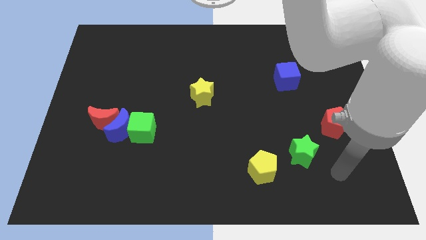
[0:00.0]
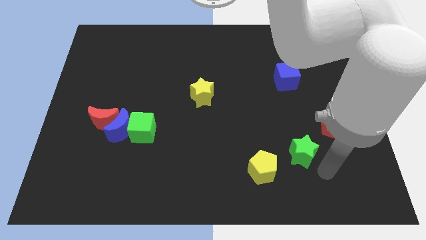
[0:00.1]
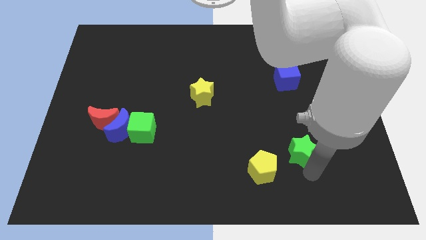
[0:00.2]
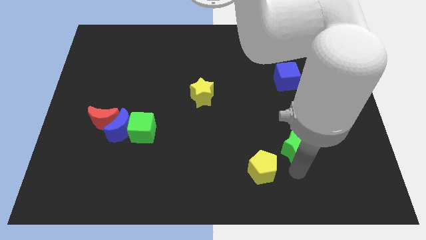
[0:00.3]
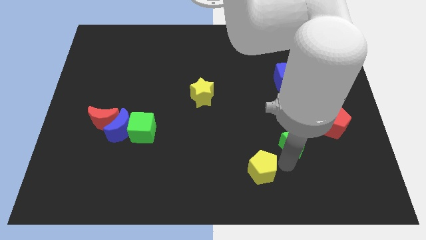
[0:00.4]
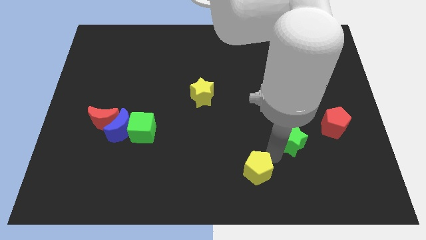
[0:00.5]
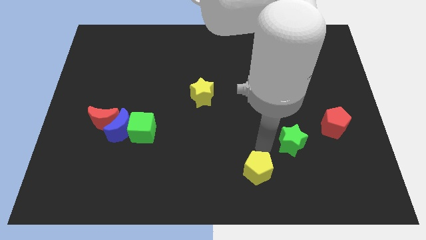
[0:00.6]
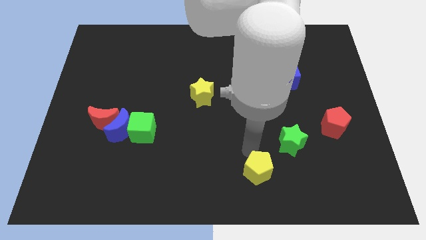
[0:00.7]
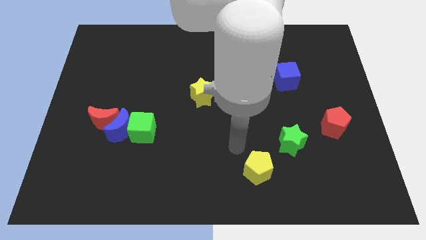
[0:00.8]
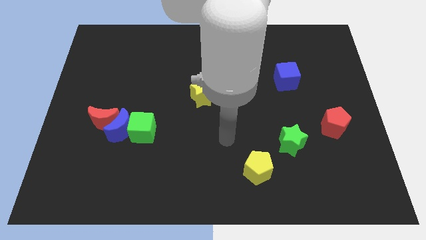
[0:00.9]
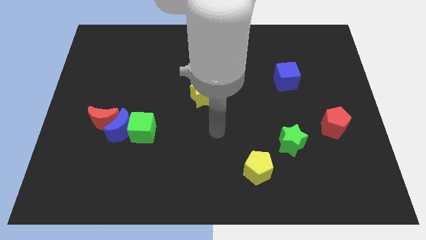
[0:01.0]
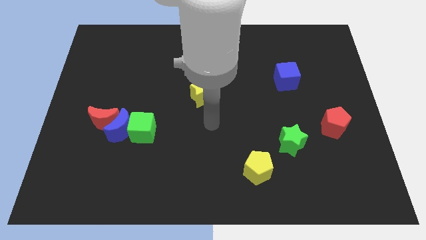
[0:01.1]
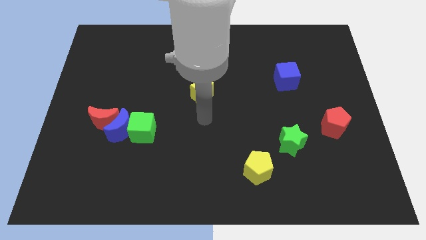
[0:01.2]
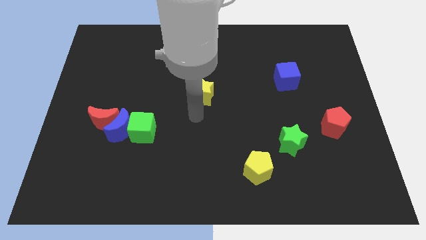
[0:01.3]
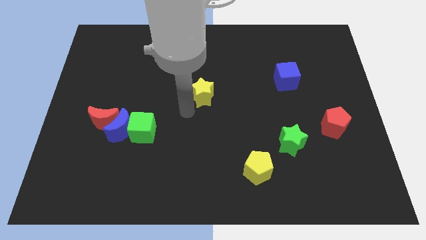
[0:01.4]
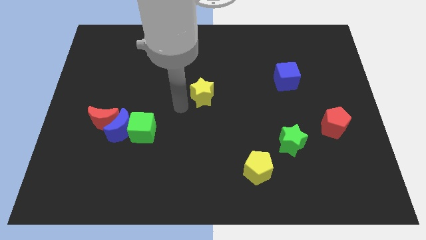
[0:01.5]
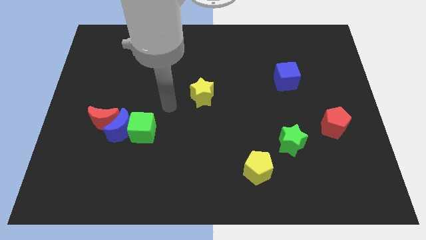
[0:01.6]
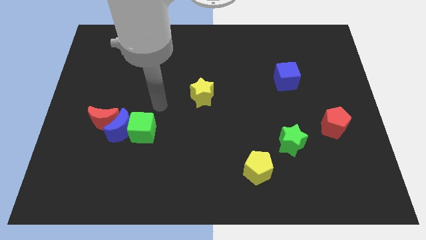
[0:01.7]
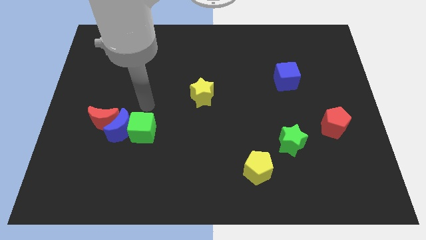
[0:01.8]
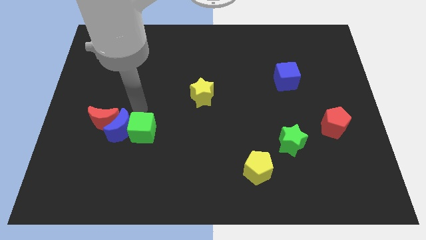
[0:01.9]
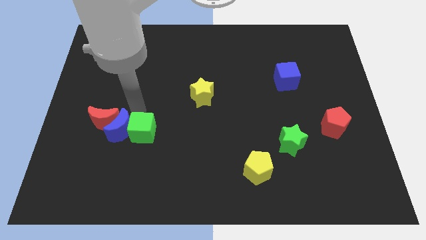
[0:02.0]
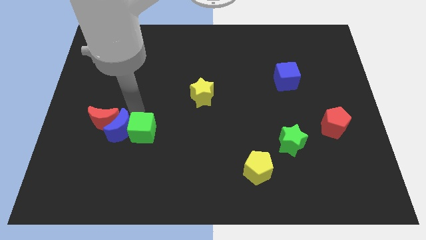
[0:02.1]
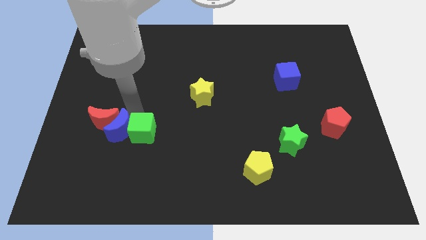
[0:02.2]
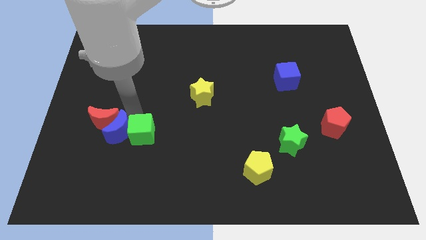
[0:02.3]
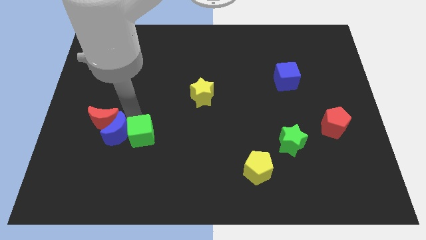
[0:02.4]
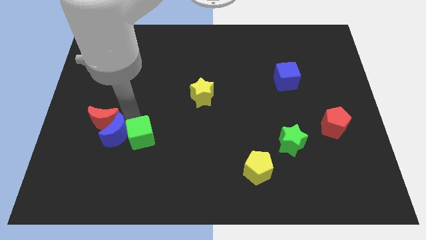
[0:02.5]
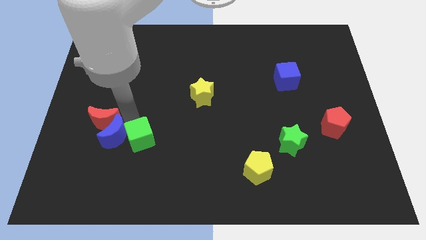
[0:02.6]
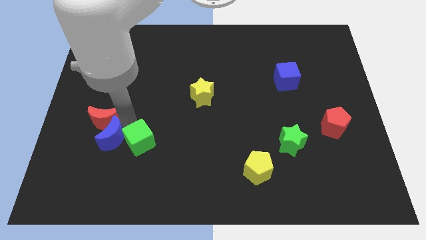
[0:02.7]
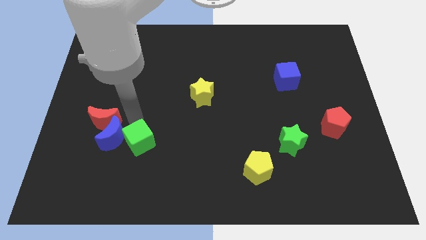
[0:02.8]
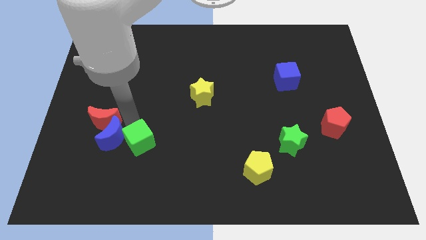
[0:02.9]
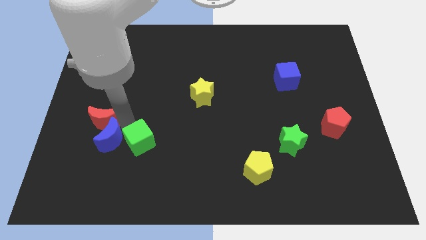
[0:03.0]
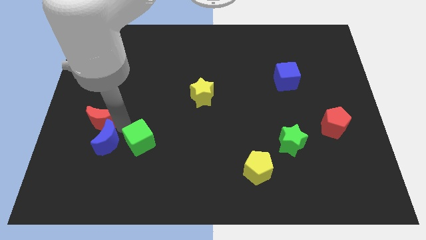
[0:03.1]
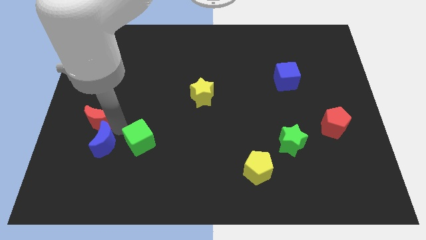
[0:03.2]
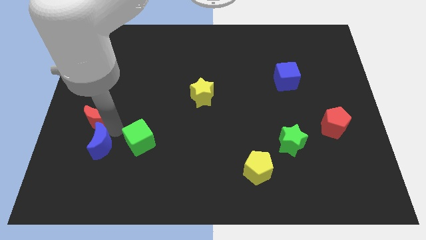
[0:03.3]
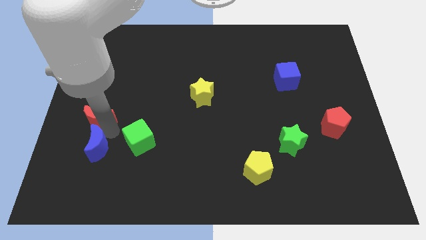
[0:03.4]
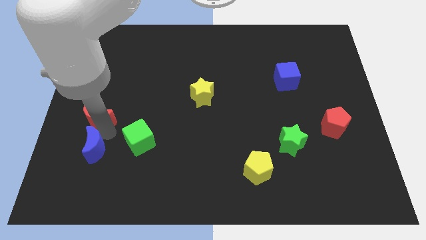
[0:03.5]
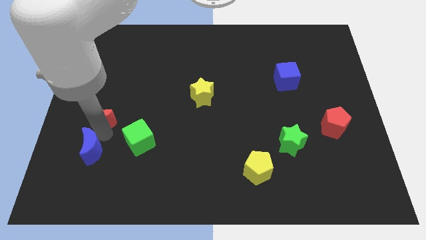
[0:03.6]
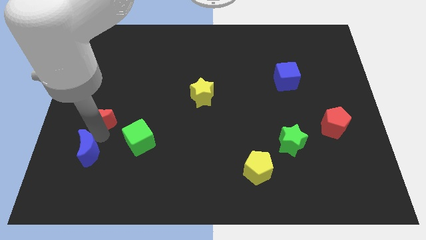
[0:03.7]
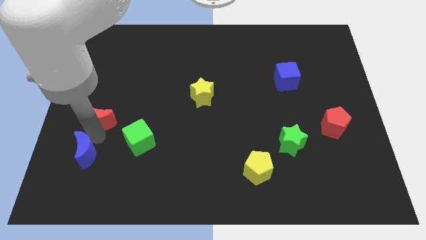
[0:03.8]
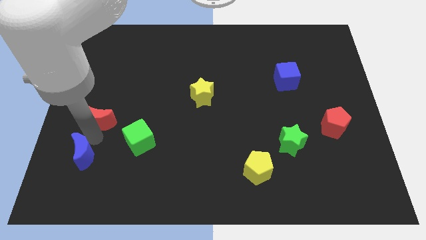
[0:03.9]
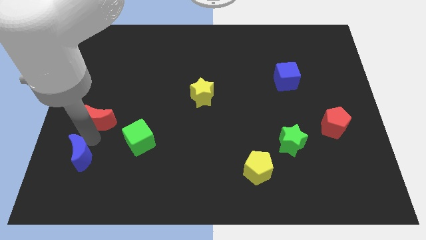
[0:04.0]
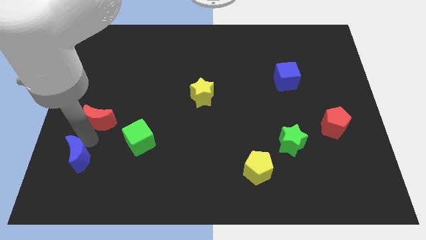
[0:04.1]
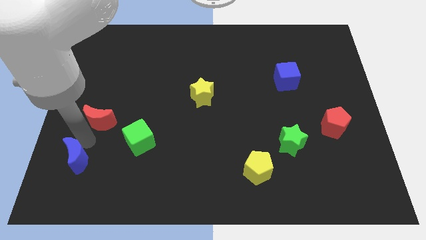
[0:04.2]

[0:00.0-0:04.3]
separate the blue moon from the red moon and green cube

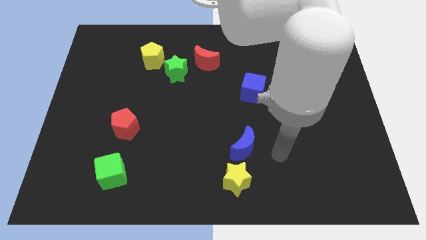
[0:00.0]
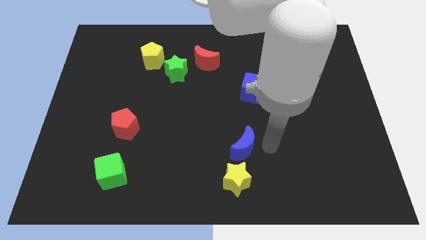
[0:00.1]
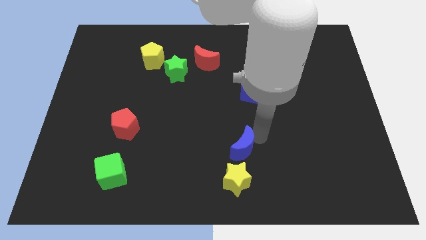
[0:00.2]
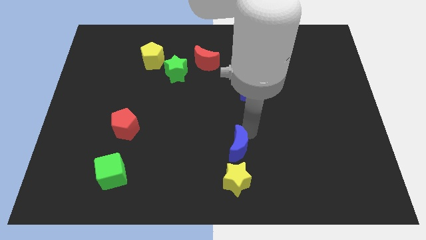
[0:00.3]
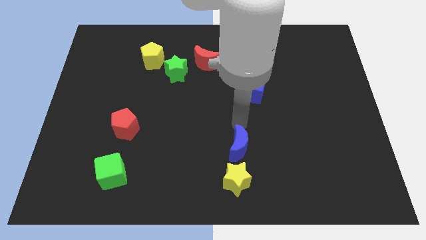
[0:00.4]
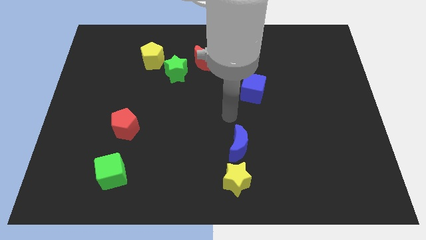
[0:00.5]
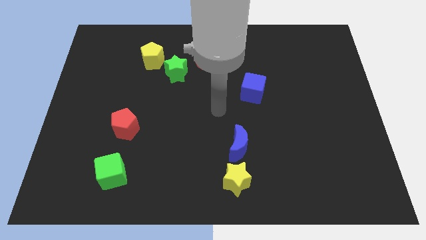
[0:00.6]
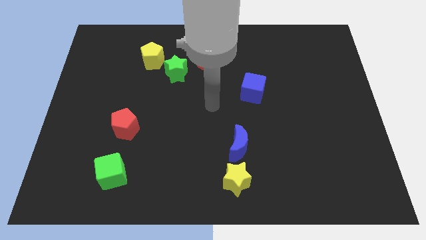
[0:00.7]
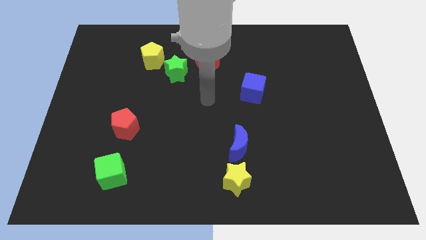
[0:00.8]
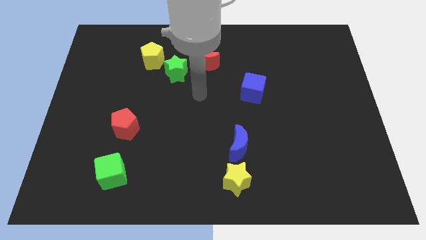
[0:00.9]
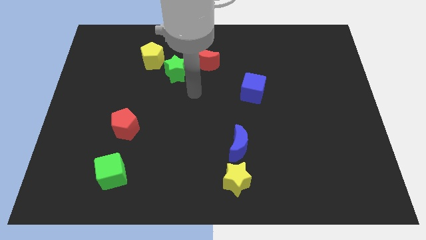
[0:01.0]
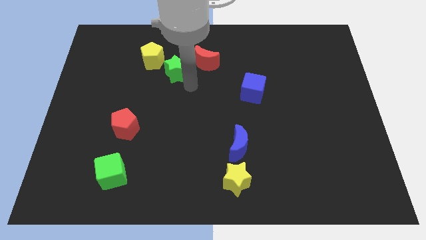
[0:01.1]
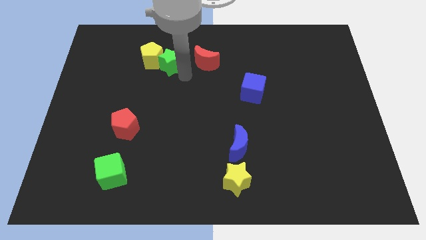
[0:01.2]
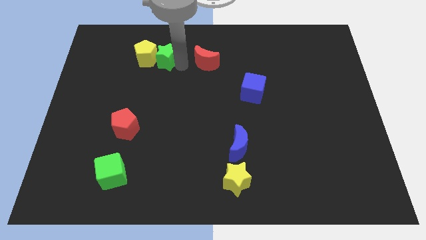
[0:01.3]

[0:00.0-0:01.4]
separate the red moon from the green star

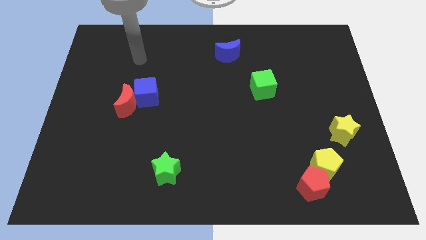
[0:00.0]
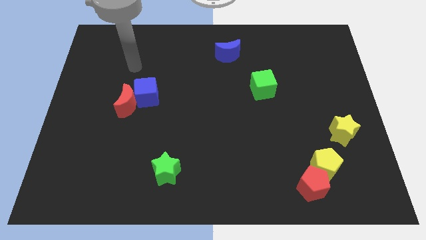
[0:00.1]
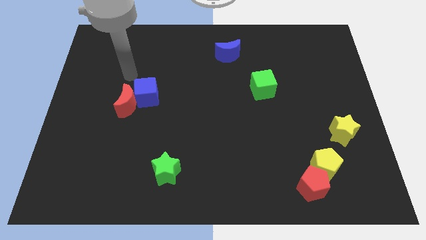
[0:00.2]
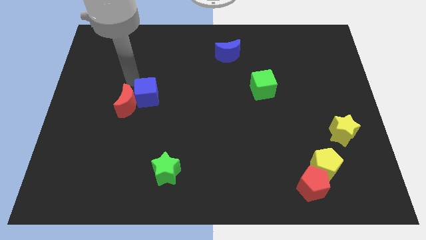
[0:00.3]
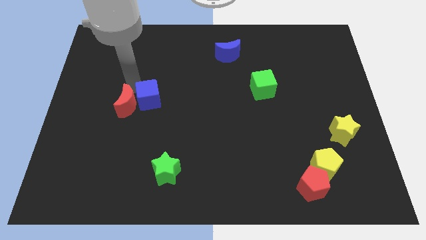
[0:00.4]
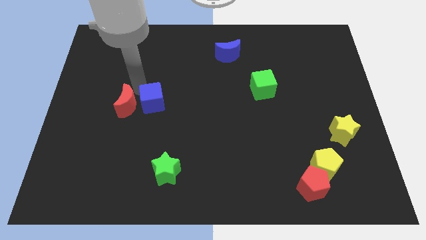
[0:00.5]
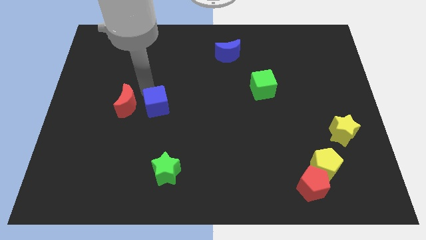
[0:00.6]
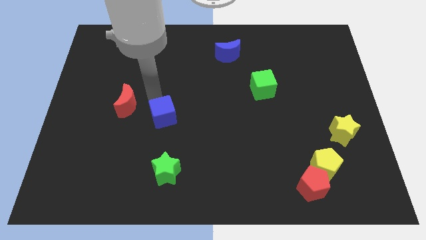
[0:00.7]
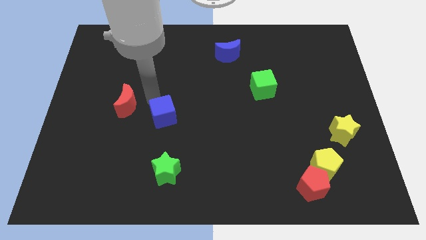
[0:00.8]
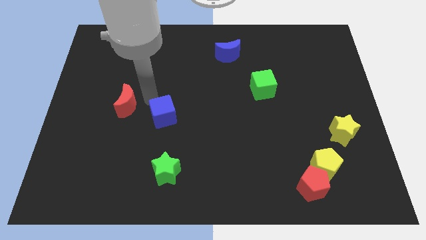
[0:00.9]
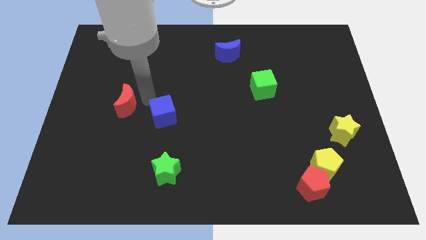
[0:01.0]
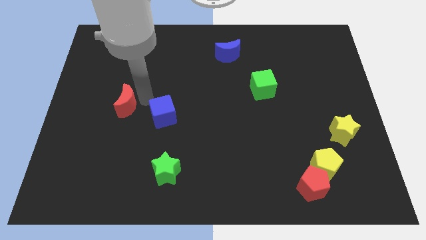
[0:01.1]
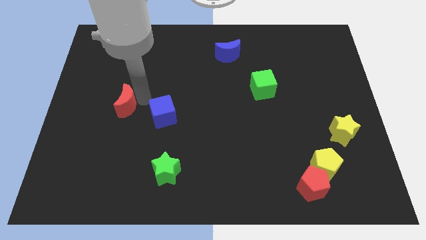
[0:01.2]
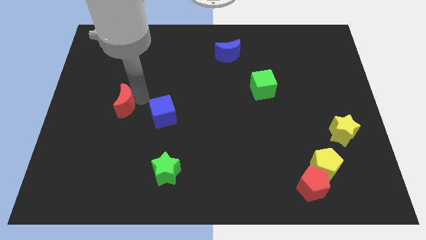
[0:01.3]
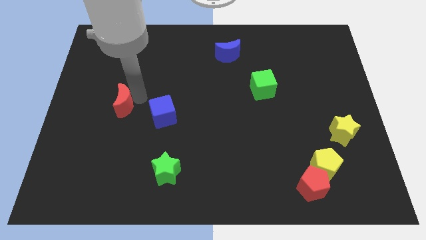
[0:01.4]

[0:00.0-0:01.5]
separate the red moon from the blue cube

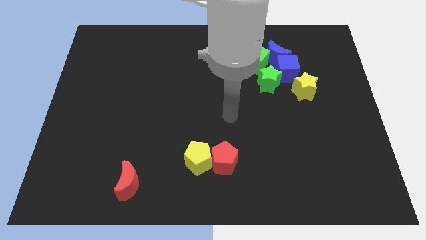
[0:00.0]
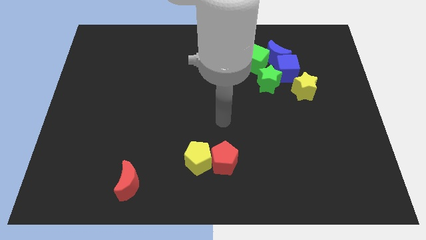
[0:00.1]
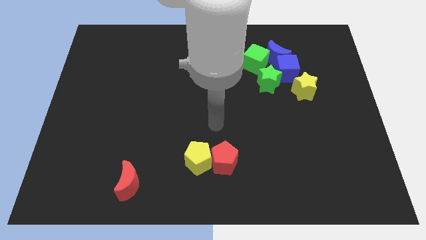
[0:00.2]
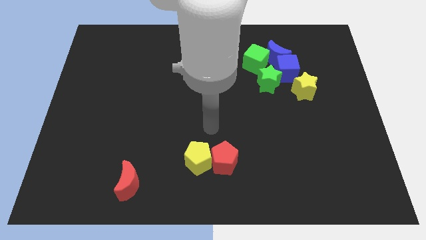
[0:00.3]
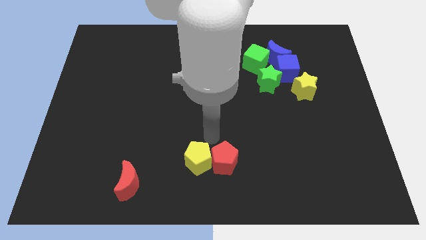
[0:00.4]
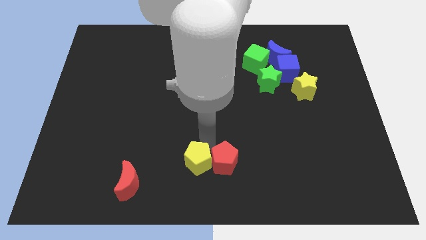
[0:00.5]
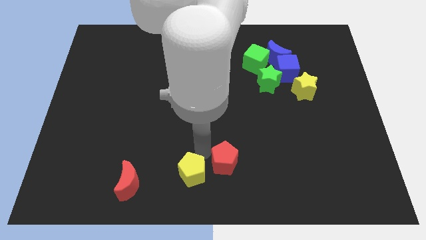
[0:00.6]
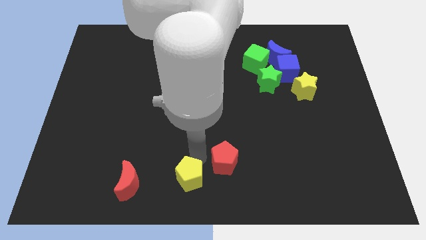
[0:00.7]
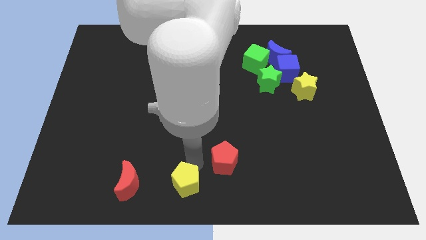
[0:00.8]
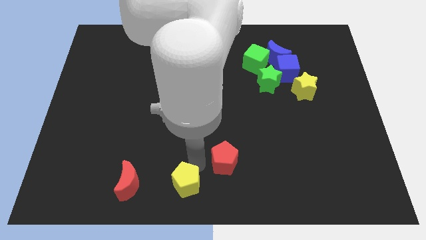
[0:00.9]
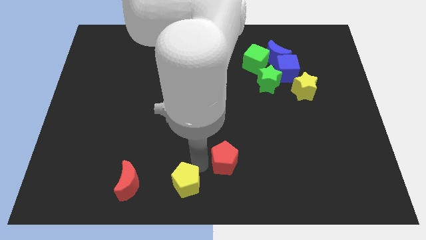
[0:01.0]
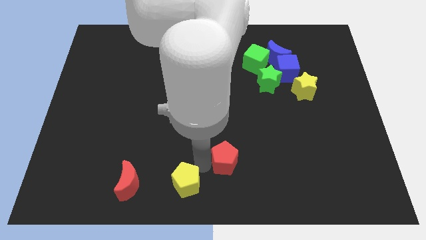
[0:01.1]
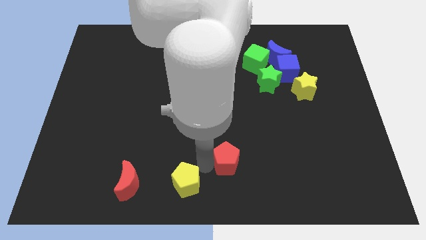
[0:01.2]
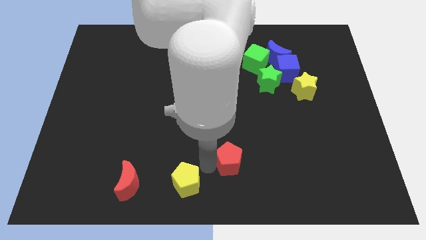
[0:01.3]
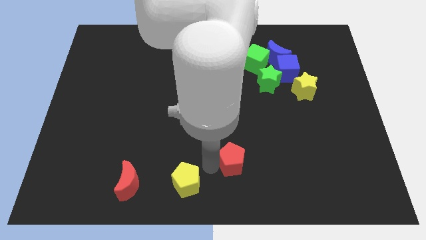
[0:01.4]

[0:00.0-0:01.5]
pull the red pentagon apart from the yellow pentagon

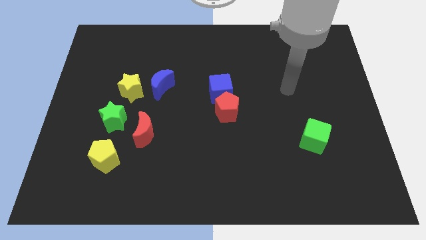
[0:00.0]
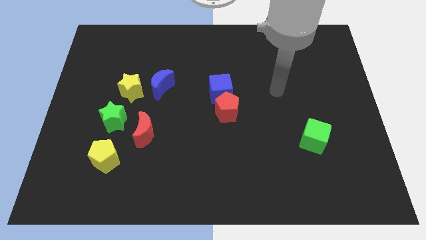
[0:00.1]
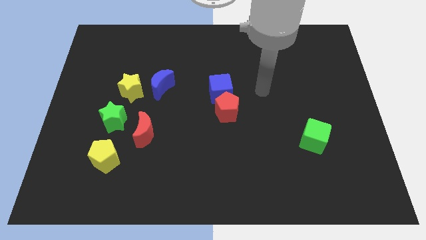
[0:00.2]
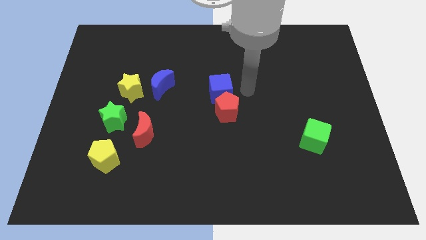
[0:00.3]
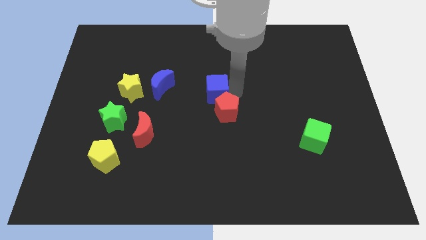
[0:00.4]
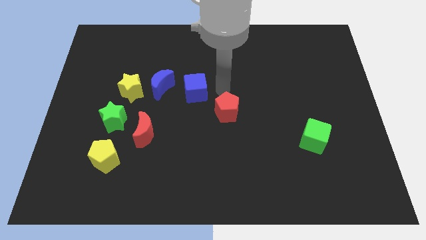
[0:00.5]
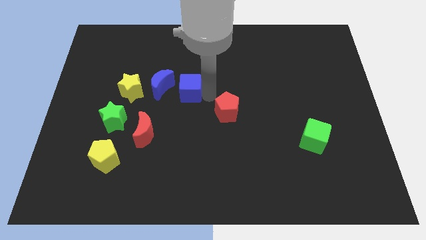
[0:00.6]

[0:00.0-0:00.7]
move the red pentagon away from the blue cube
